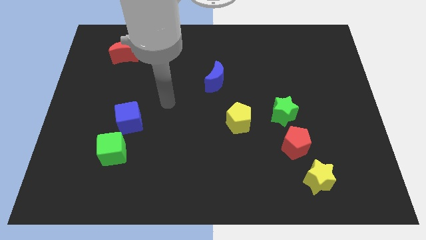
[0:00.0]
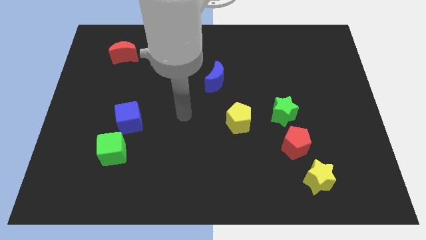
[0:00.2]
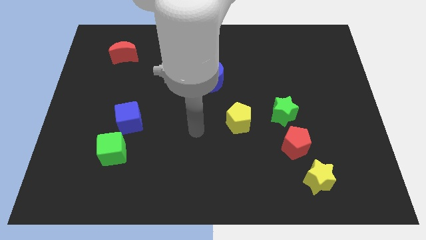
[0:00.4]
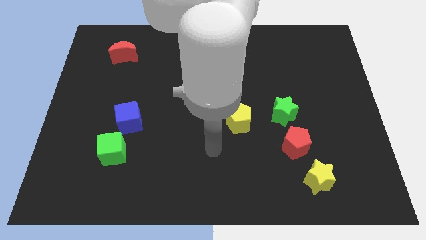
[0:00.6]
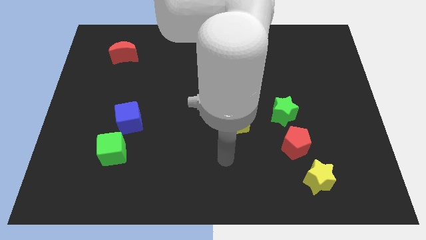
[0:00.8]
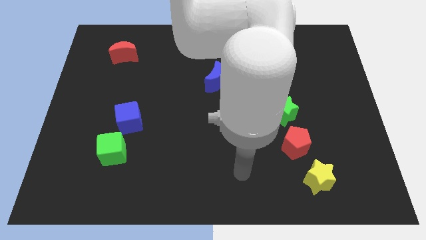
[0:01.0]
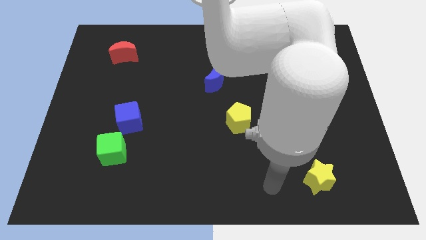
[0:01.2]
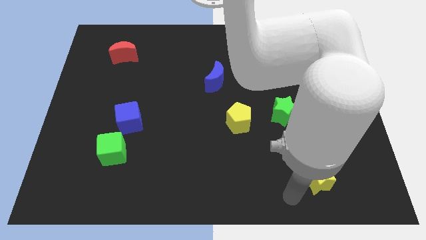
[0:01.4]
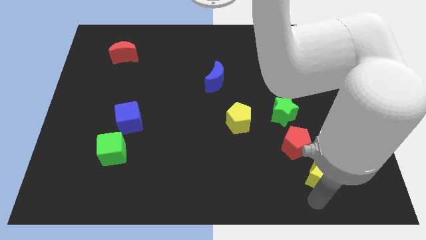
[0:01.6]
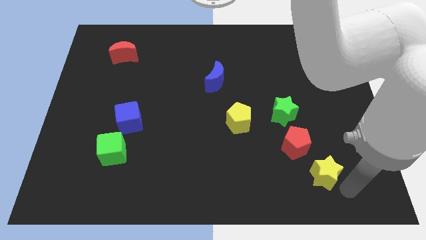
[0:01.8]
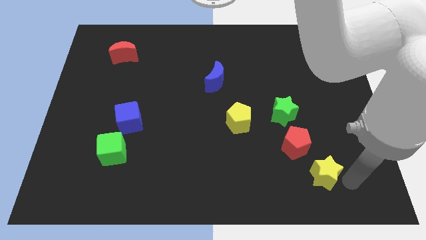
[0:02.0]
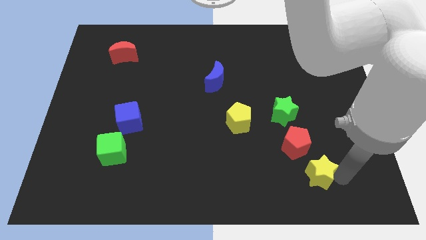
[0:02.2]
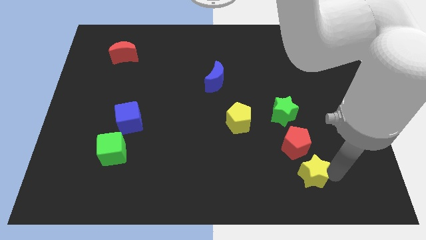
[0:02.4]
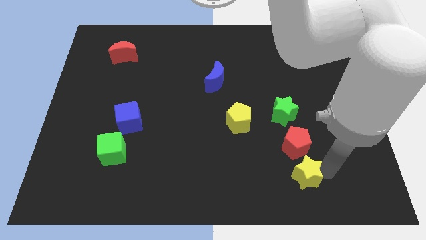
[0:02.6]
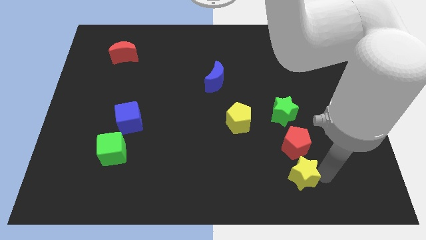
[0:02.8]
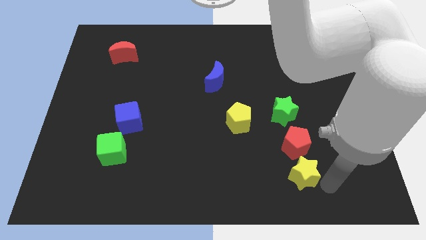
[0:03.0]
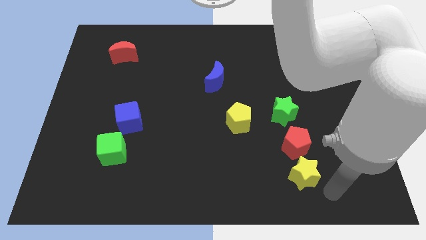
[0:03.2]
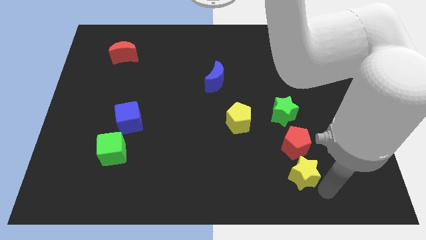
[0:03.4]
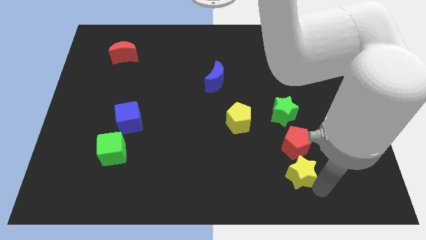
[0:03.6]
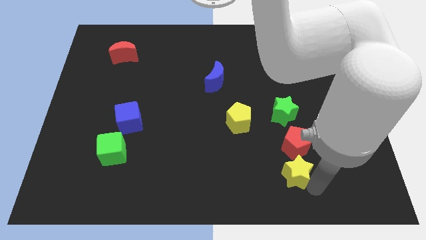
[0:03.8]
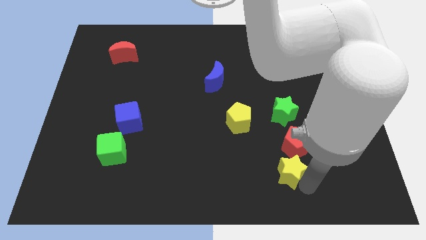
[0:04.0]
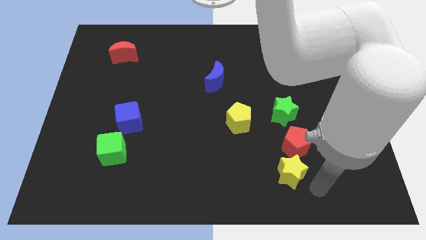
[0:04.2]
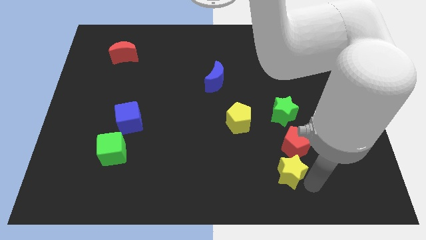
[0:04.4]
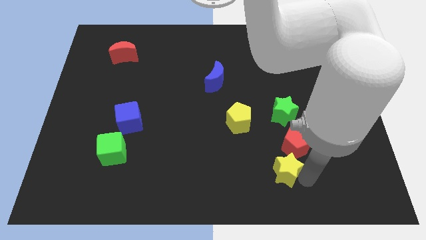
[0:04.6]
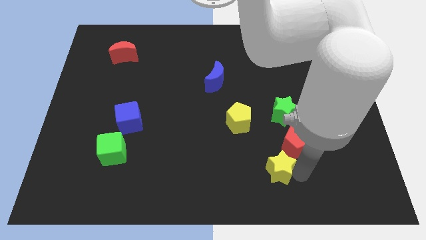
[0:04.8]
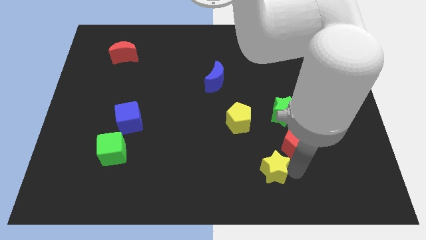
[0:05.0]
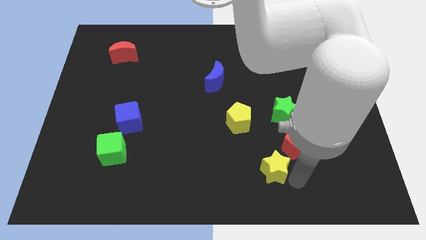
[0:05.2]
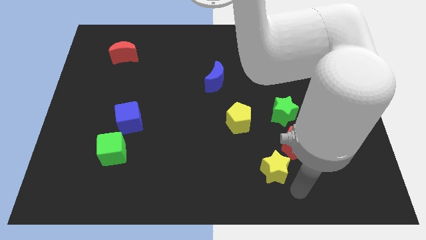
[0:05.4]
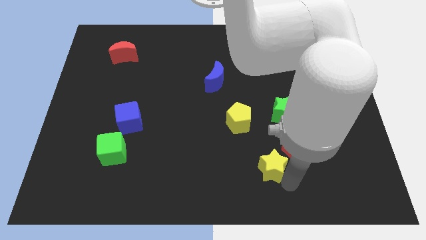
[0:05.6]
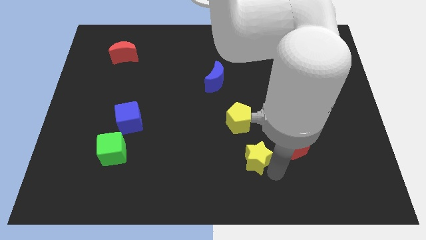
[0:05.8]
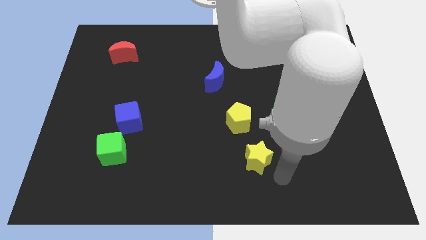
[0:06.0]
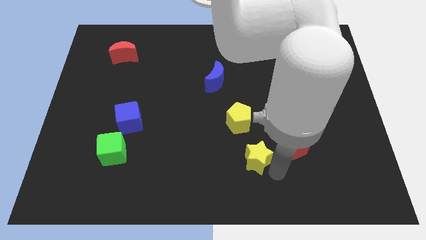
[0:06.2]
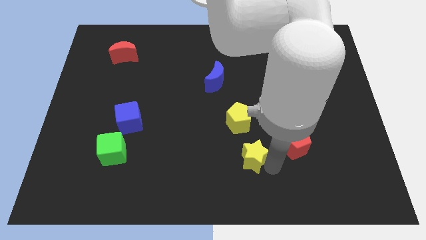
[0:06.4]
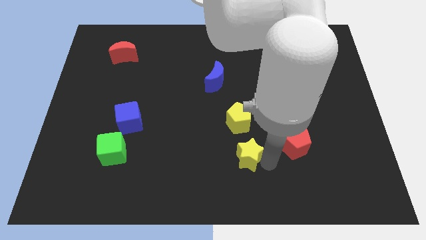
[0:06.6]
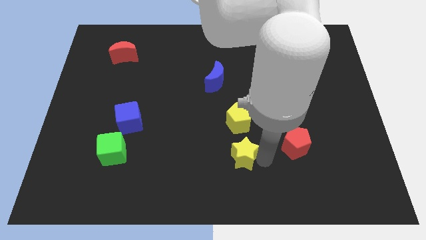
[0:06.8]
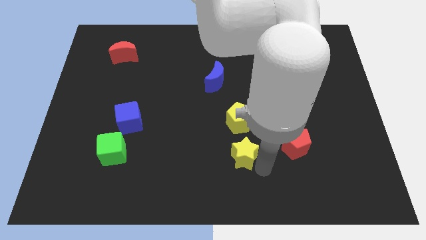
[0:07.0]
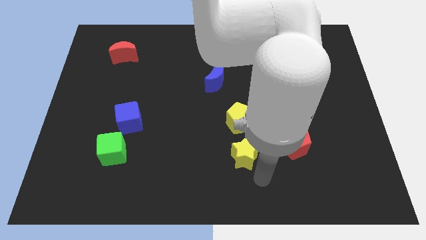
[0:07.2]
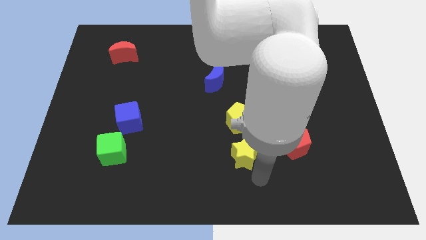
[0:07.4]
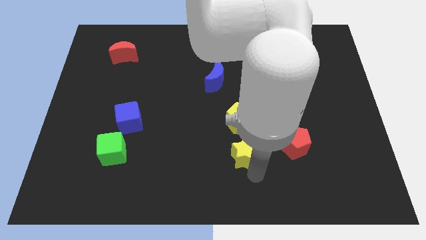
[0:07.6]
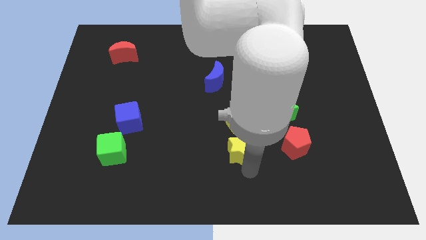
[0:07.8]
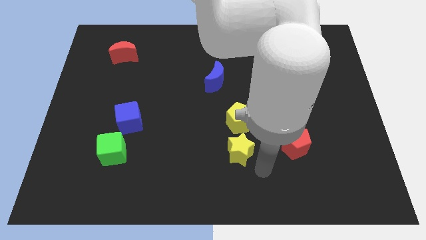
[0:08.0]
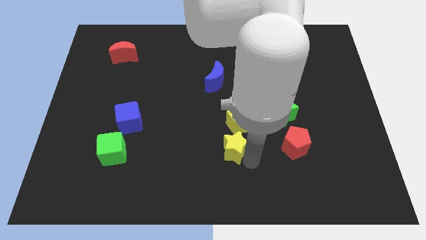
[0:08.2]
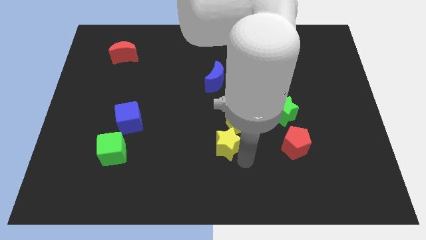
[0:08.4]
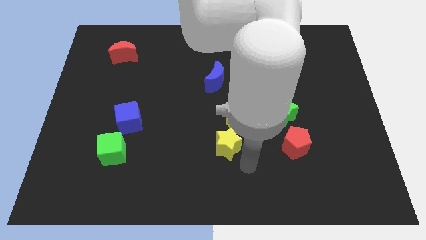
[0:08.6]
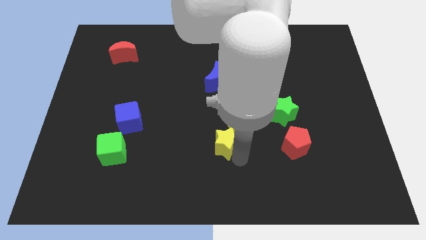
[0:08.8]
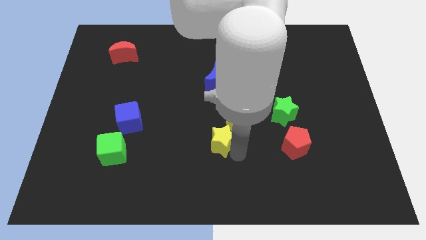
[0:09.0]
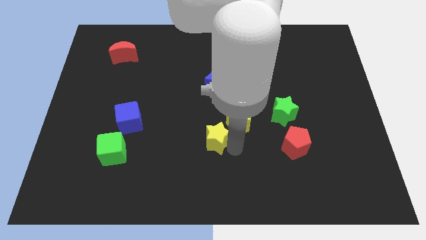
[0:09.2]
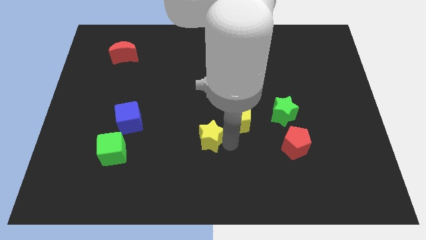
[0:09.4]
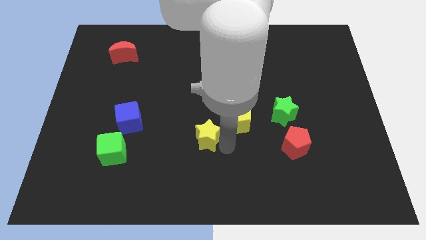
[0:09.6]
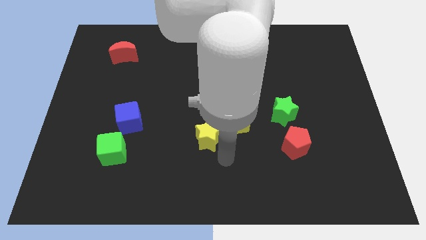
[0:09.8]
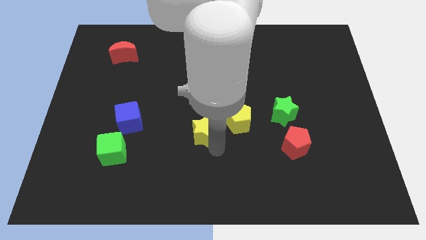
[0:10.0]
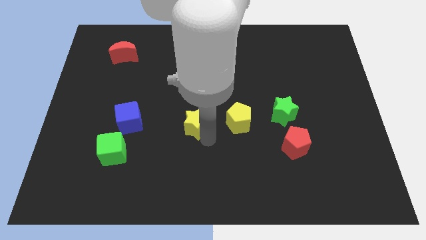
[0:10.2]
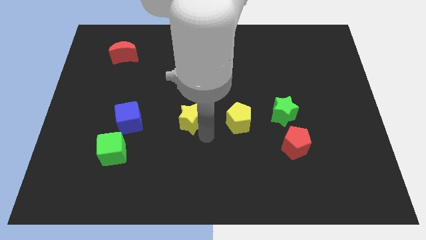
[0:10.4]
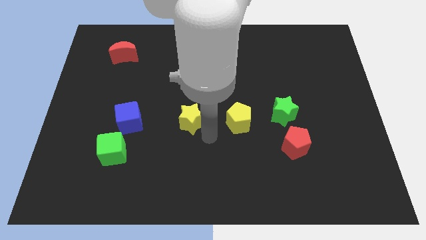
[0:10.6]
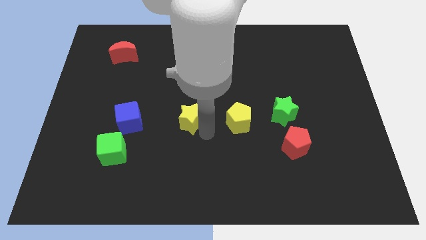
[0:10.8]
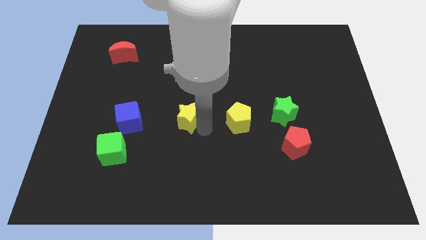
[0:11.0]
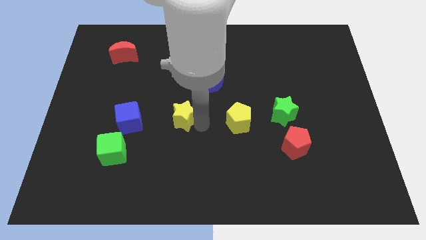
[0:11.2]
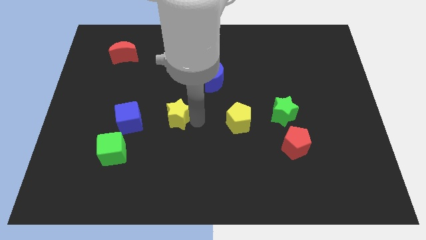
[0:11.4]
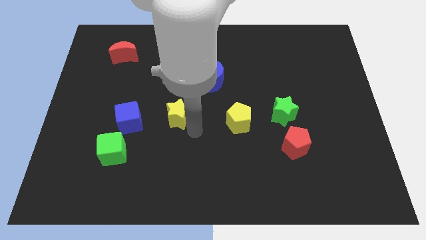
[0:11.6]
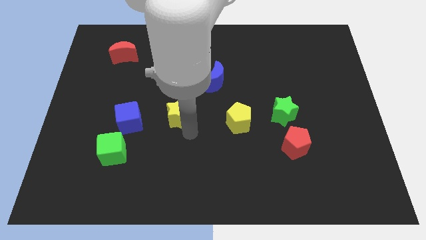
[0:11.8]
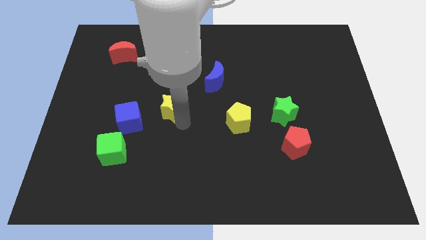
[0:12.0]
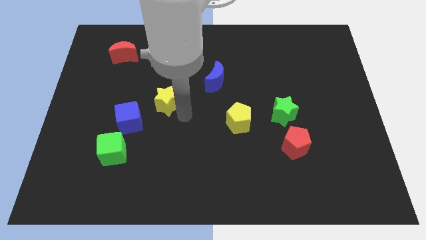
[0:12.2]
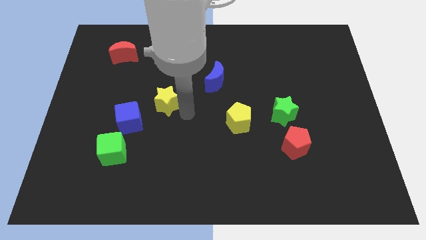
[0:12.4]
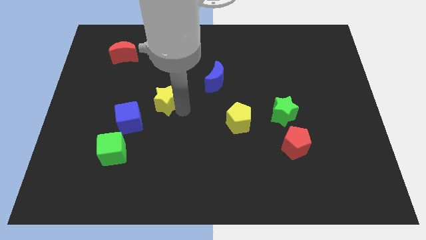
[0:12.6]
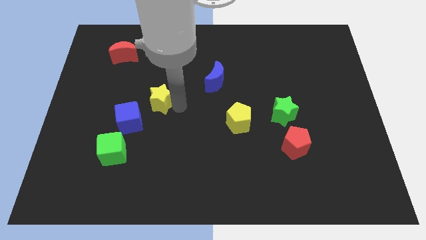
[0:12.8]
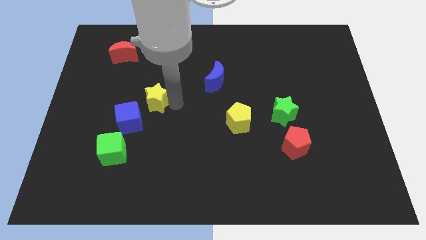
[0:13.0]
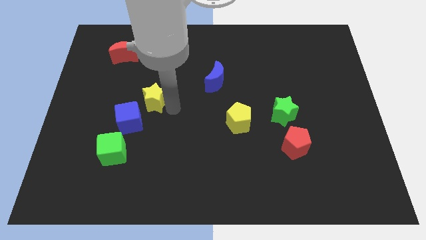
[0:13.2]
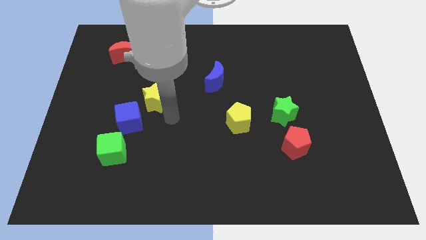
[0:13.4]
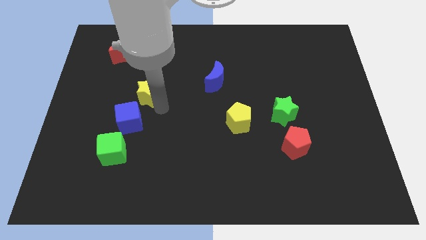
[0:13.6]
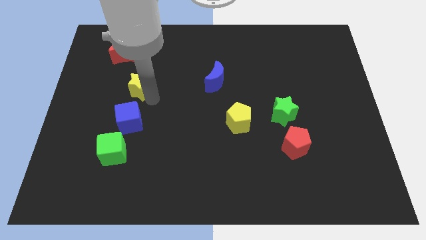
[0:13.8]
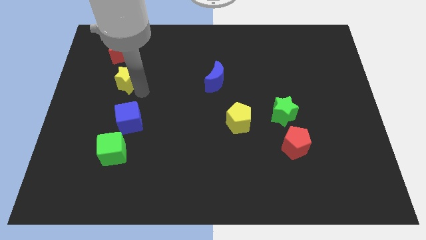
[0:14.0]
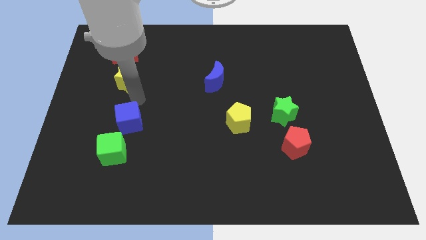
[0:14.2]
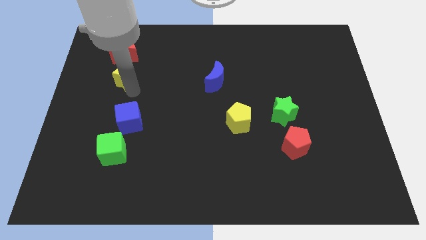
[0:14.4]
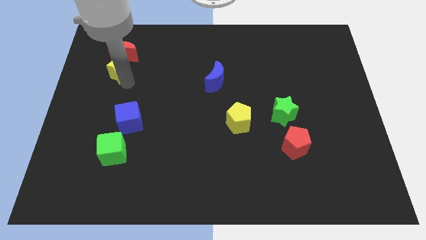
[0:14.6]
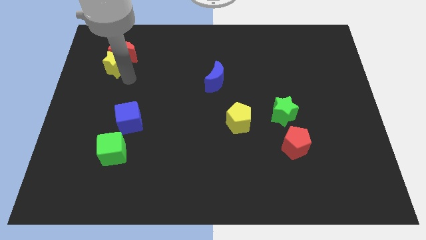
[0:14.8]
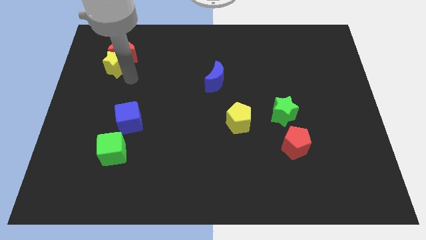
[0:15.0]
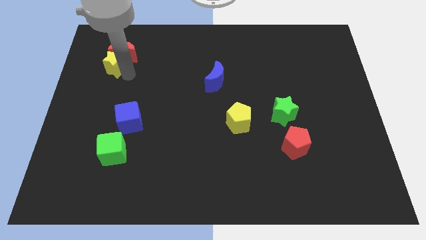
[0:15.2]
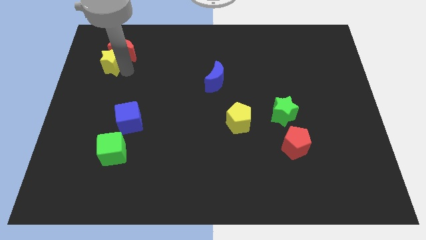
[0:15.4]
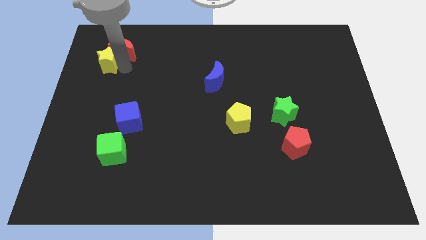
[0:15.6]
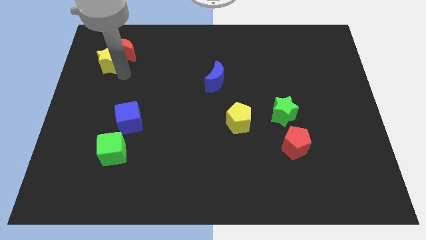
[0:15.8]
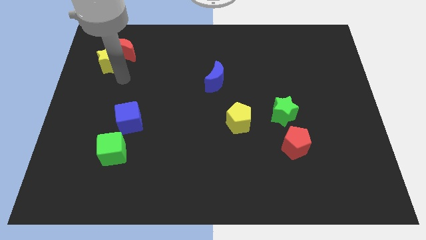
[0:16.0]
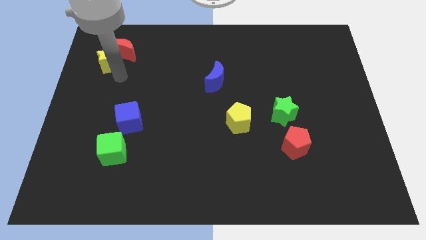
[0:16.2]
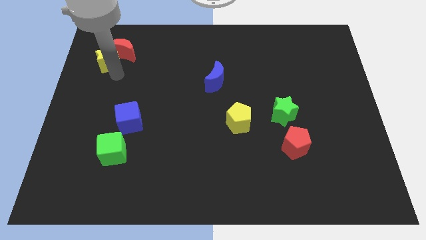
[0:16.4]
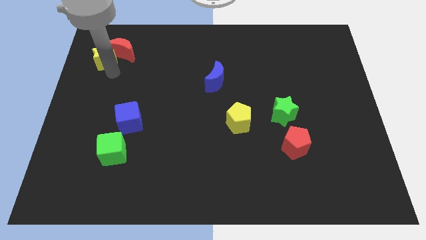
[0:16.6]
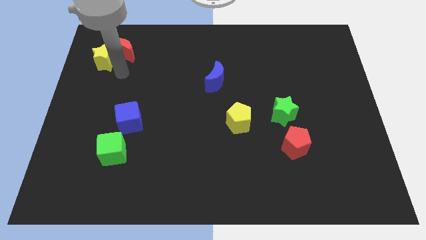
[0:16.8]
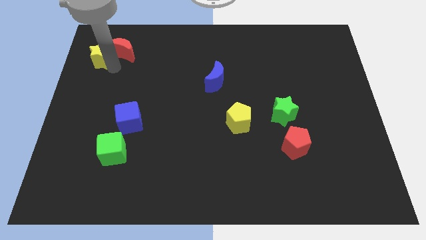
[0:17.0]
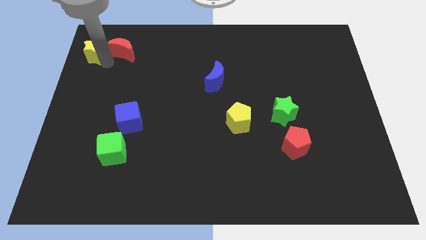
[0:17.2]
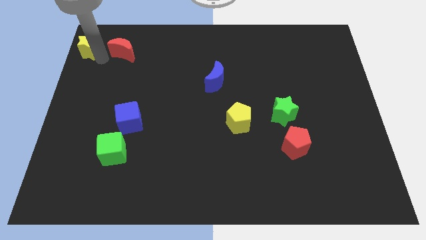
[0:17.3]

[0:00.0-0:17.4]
put the yellow star to the top left
